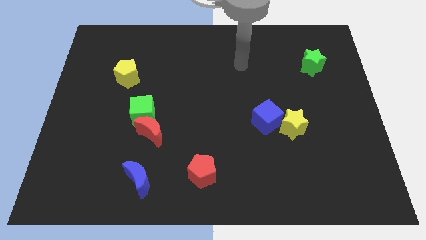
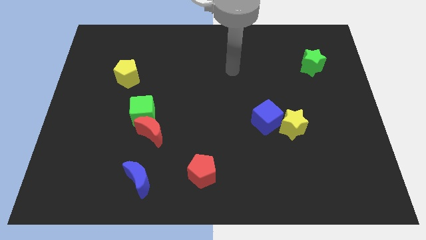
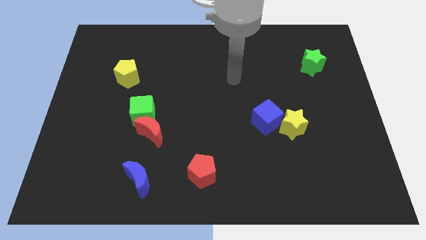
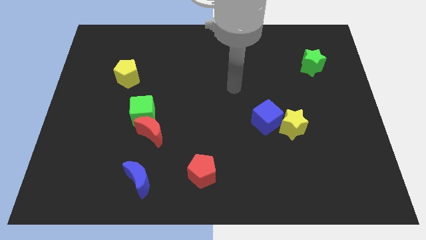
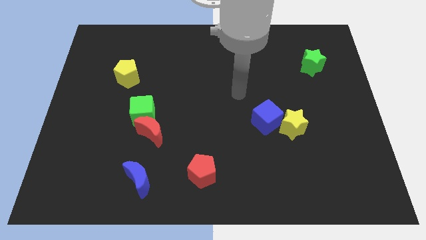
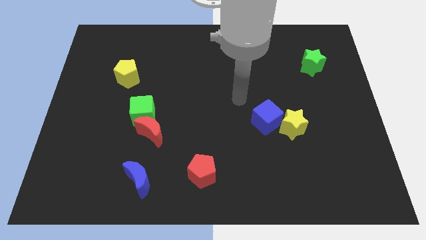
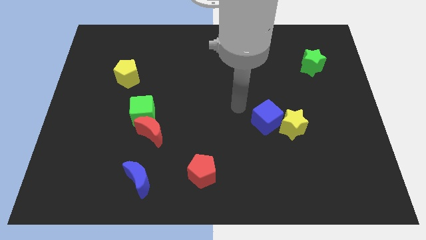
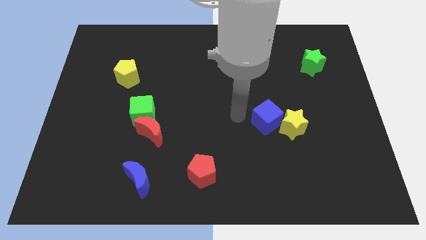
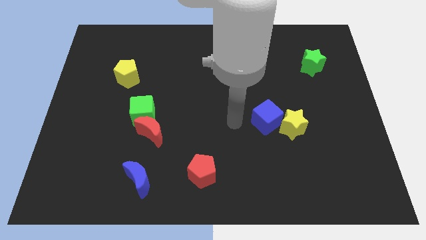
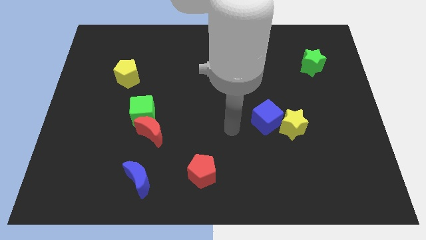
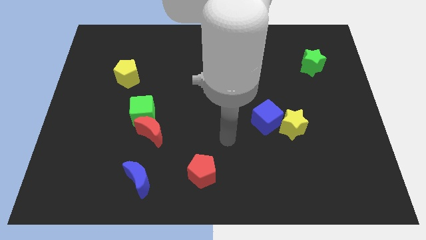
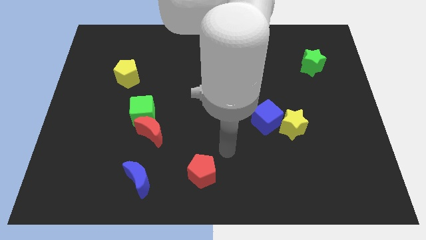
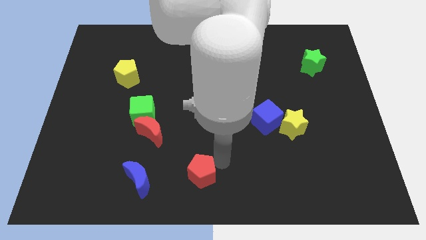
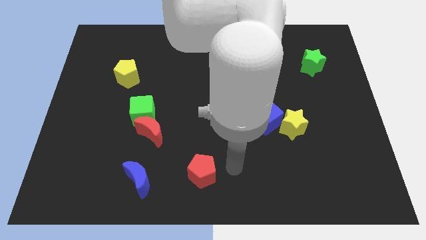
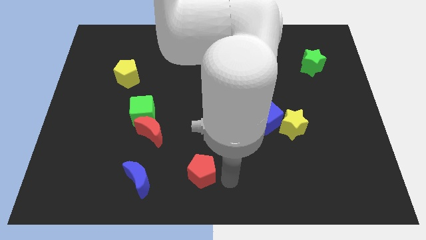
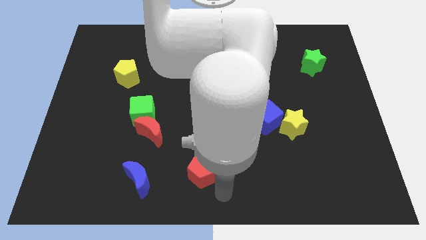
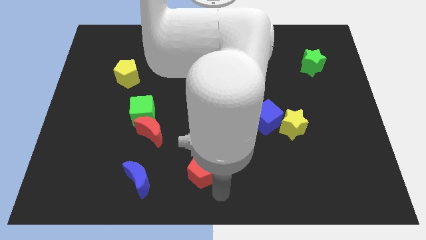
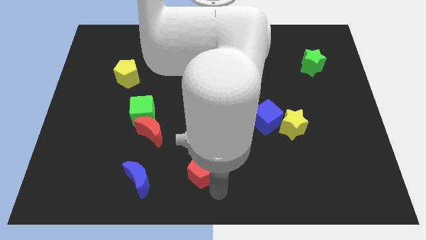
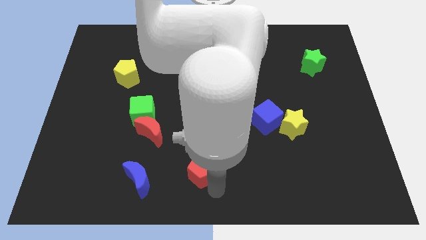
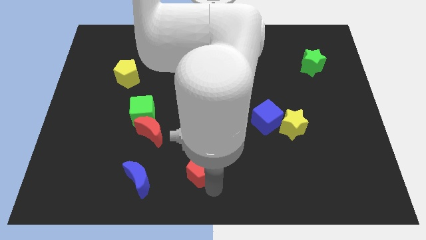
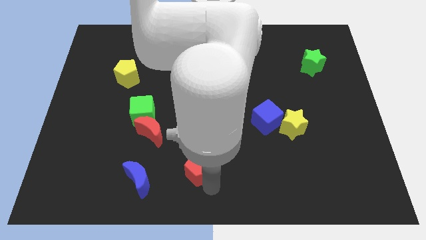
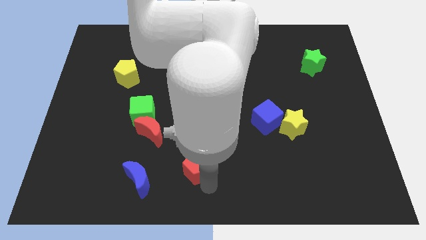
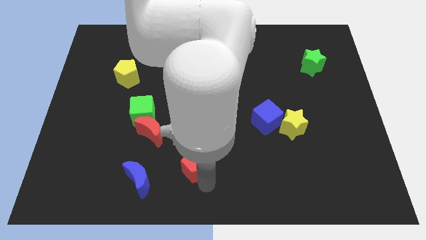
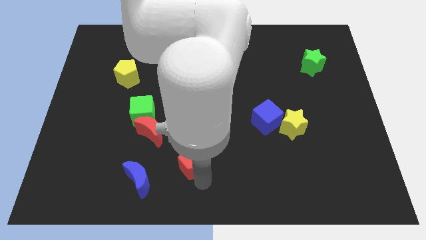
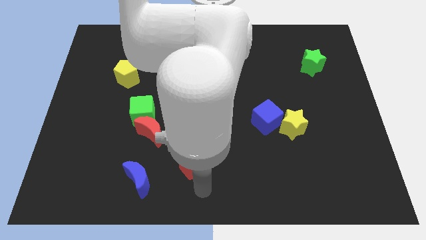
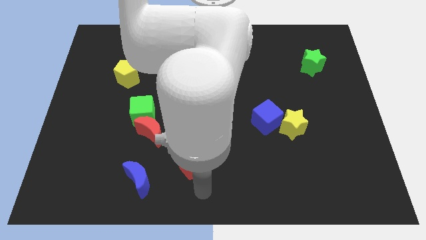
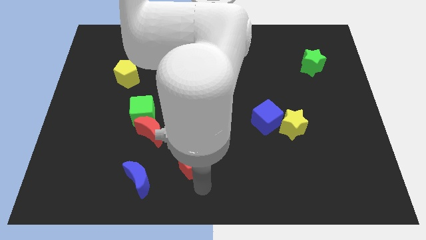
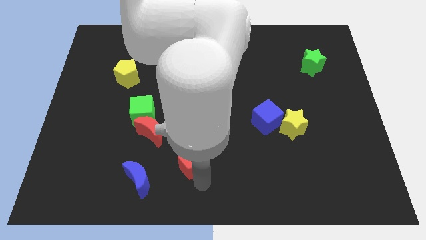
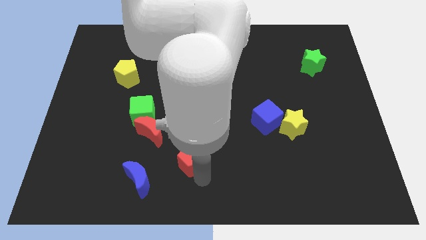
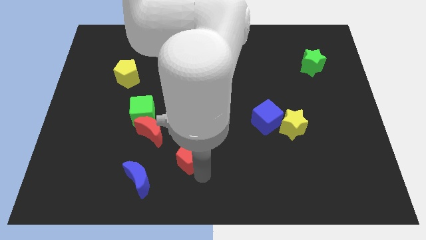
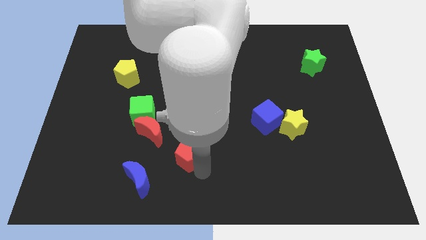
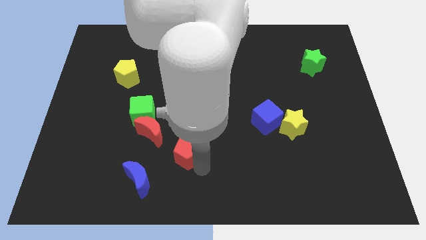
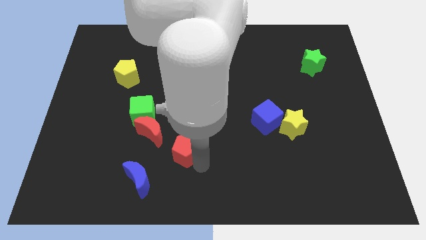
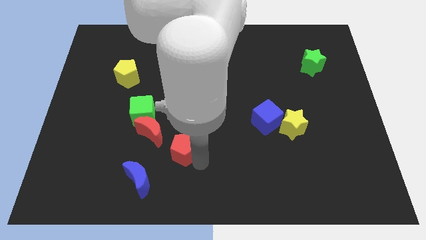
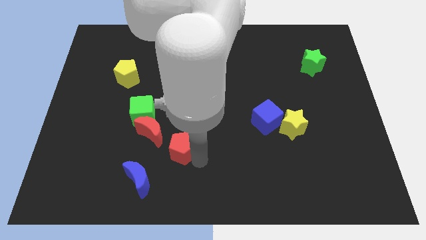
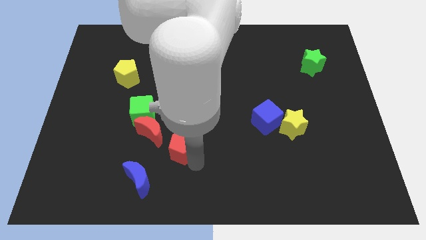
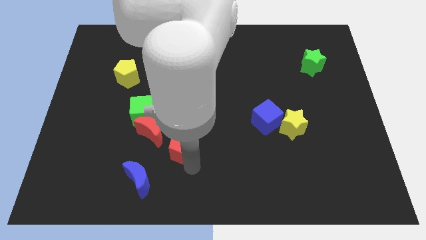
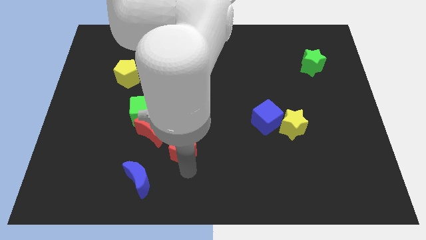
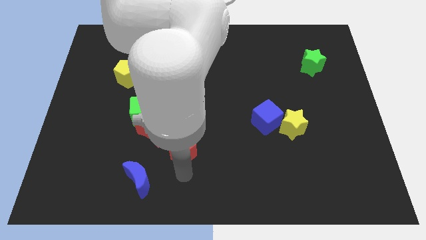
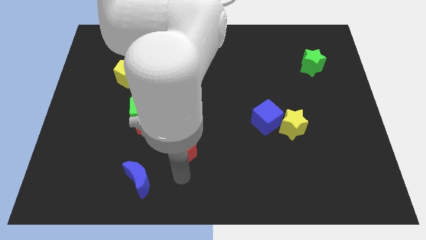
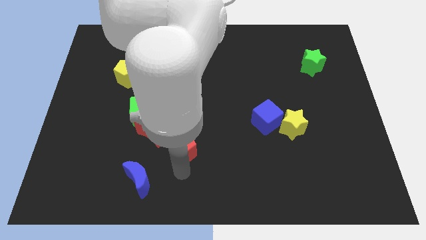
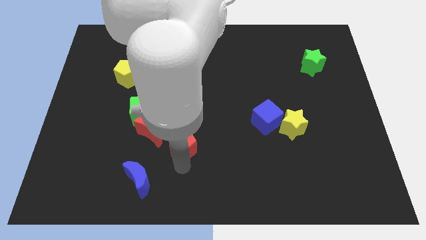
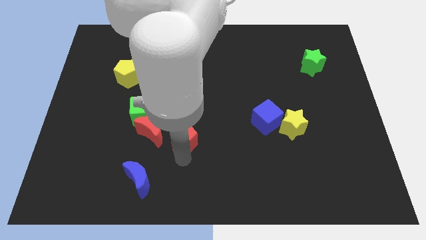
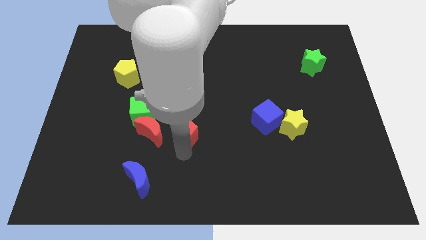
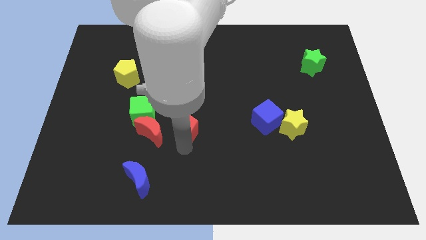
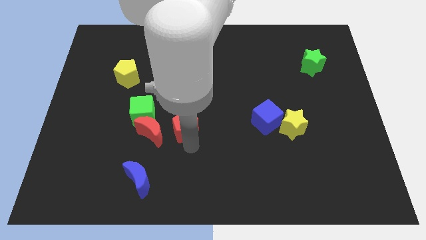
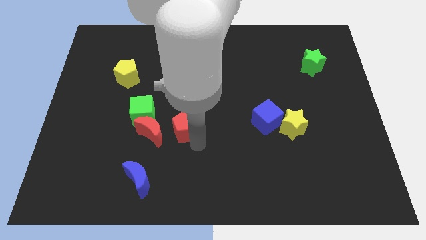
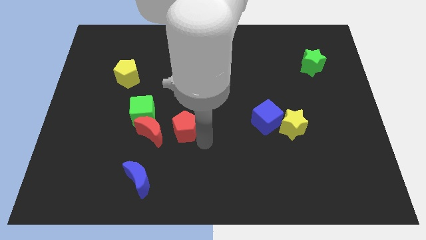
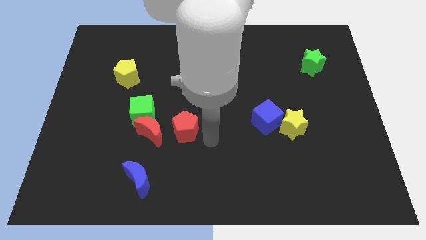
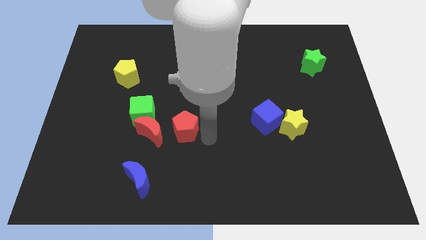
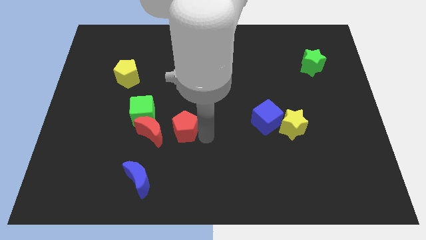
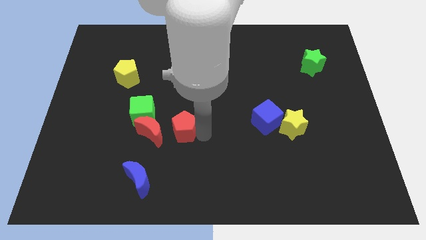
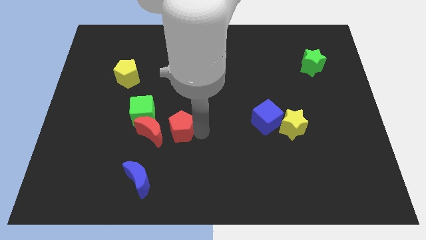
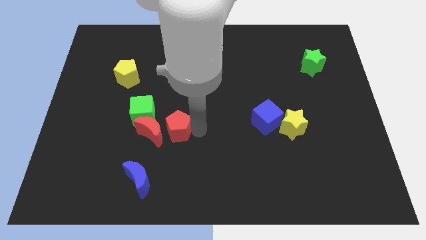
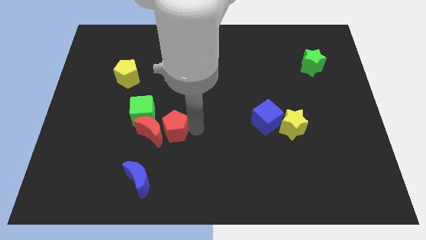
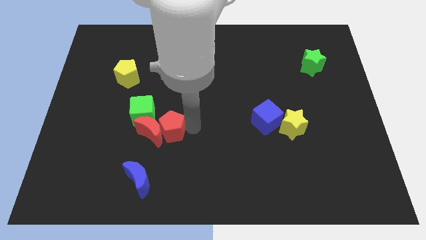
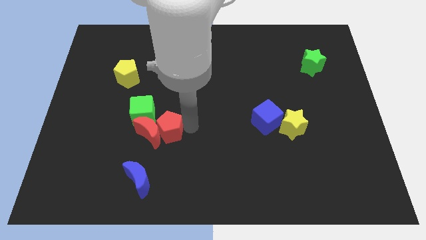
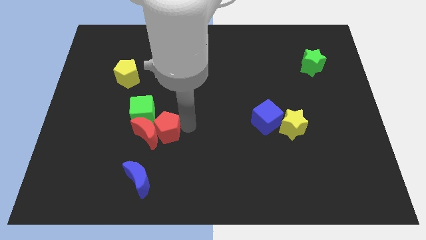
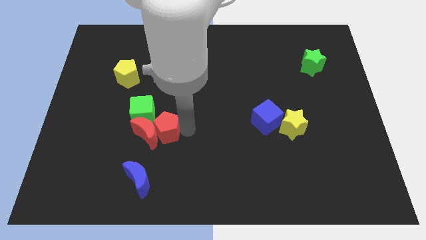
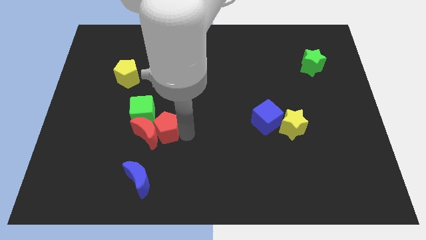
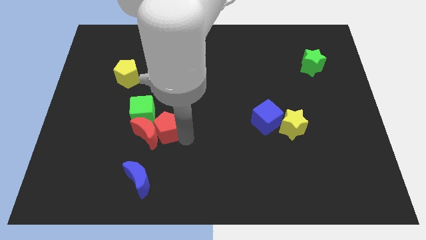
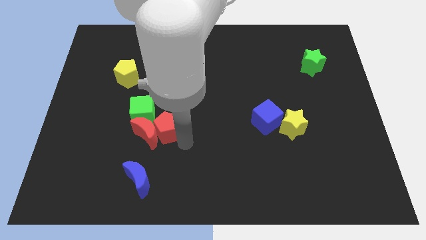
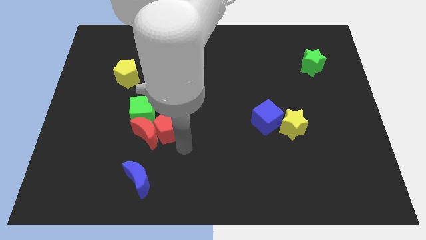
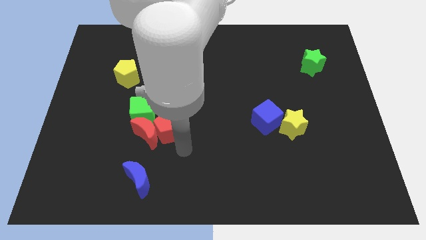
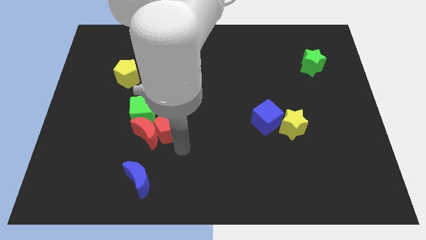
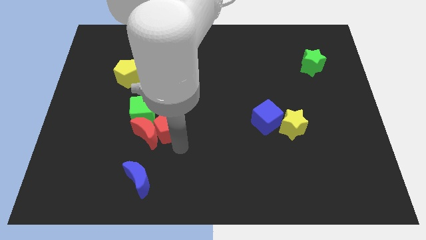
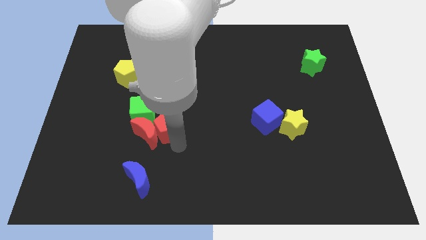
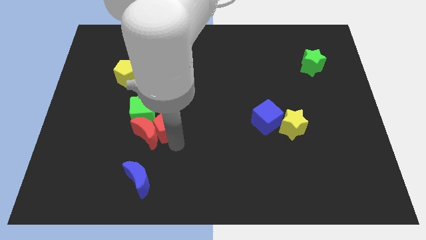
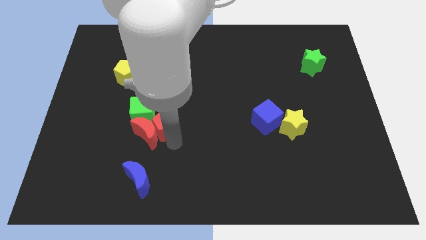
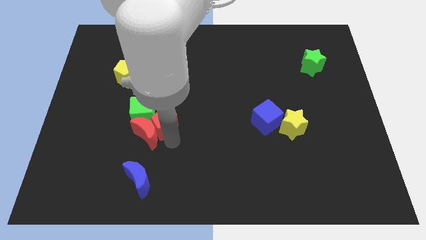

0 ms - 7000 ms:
slide the red pentagon to the green cube
